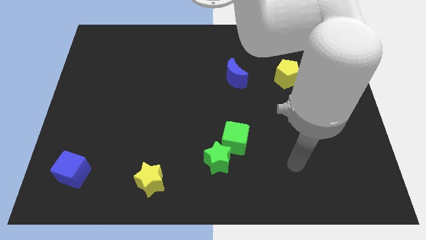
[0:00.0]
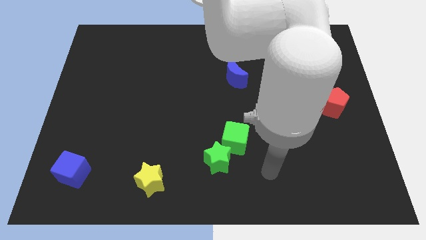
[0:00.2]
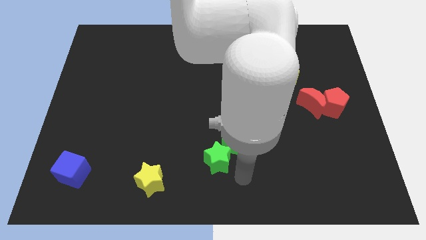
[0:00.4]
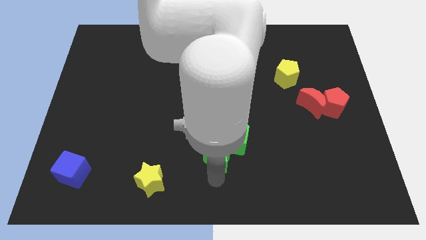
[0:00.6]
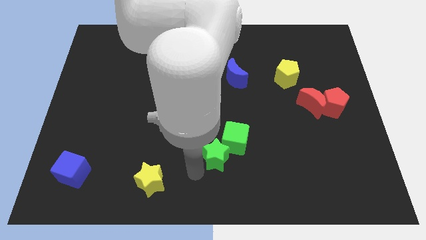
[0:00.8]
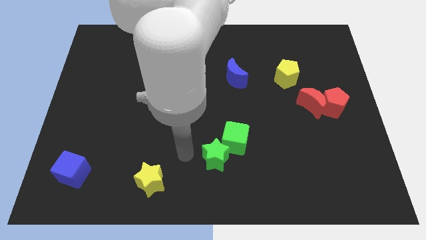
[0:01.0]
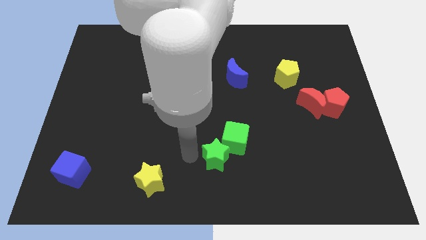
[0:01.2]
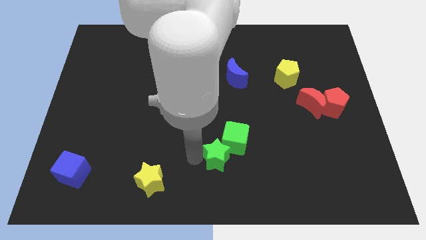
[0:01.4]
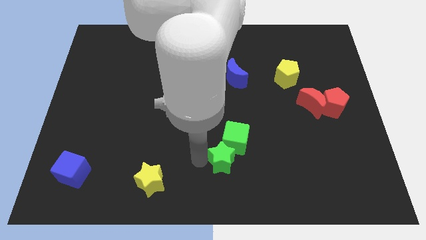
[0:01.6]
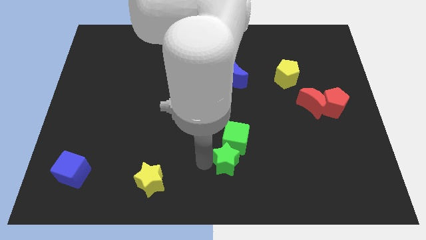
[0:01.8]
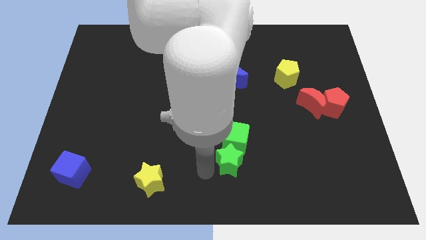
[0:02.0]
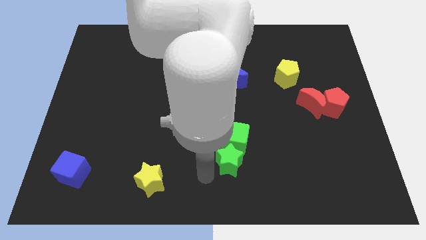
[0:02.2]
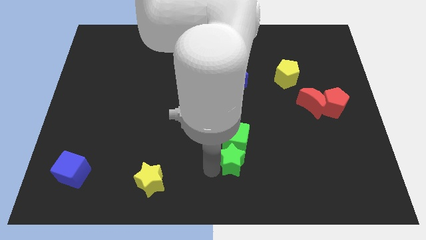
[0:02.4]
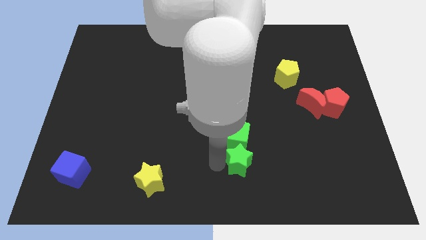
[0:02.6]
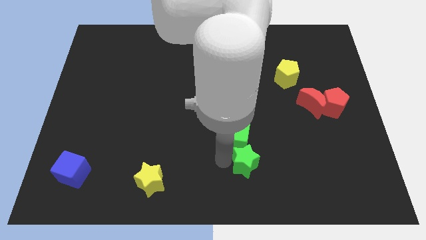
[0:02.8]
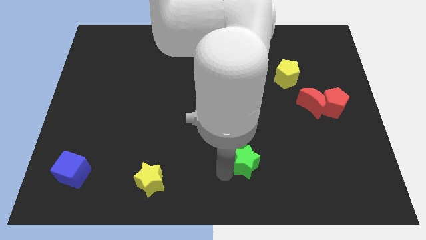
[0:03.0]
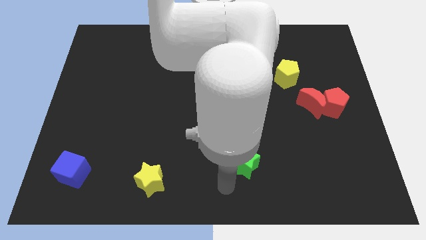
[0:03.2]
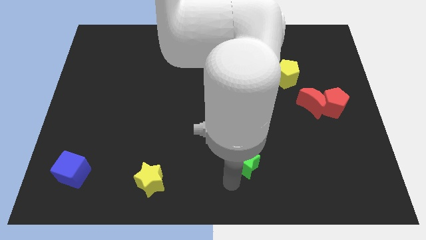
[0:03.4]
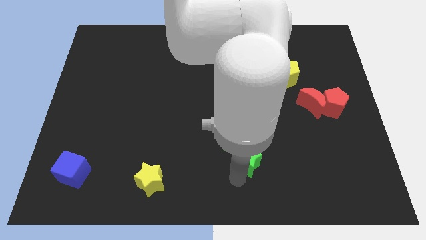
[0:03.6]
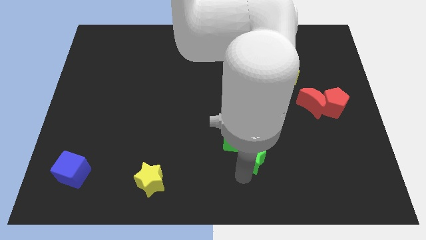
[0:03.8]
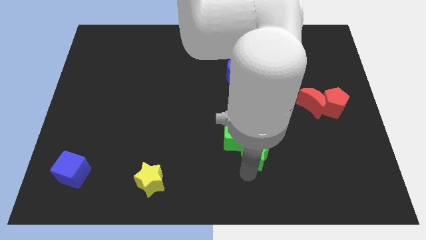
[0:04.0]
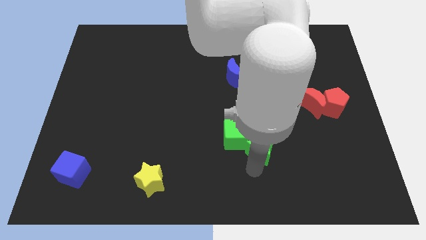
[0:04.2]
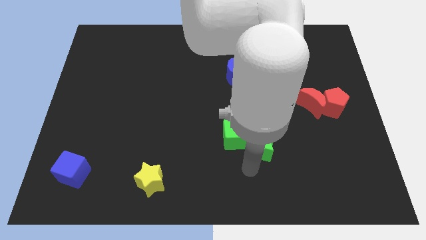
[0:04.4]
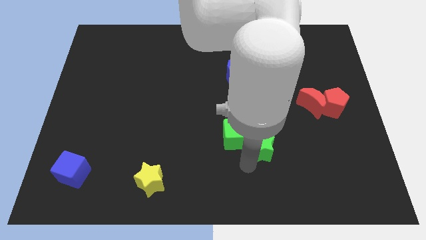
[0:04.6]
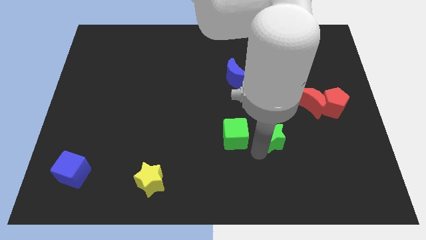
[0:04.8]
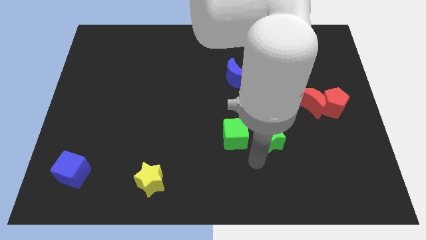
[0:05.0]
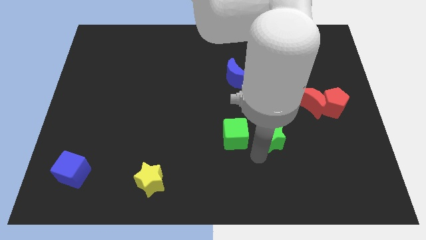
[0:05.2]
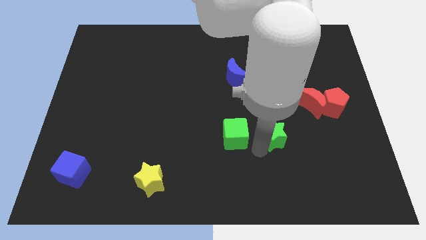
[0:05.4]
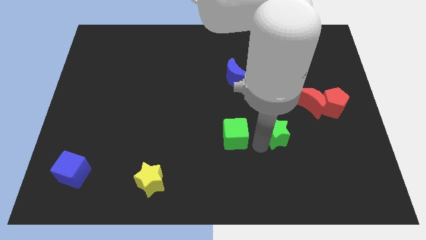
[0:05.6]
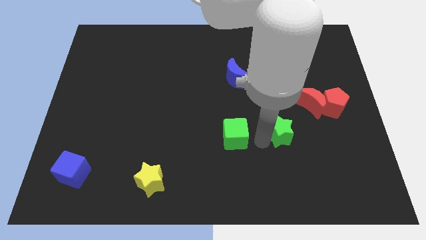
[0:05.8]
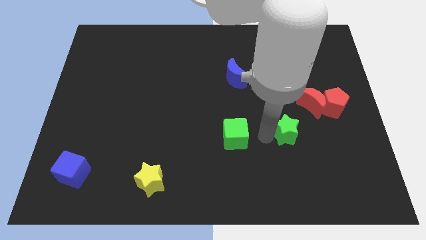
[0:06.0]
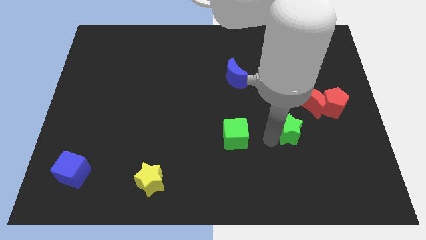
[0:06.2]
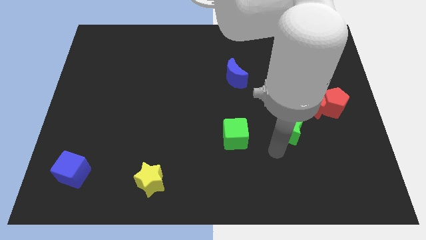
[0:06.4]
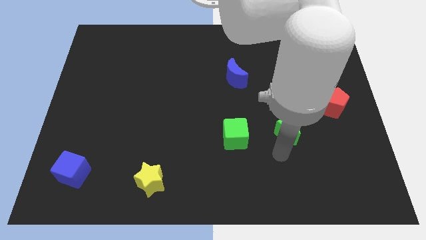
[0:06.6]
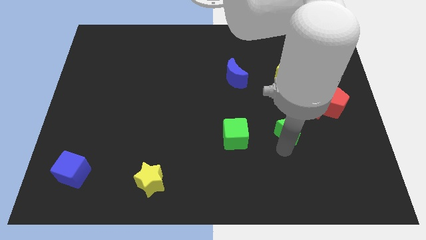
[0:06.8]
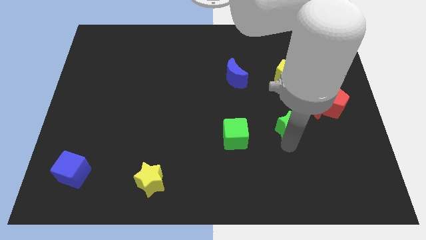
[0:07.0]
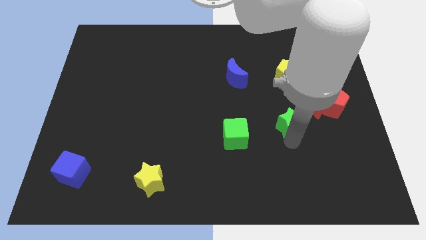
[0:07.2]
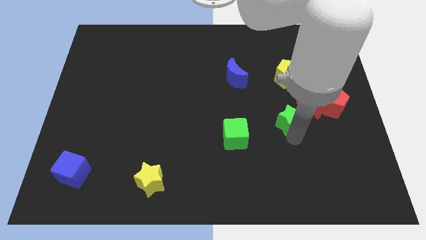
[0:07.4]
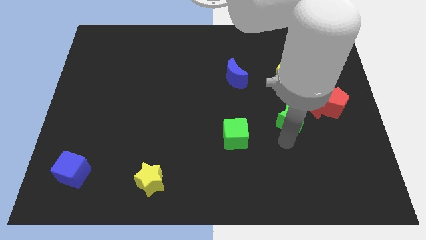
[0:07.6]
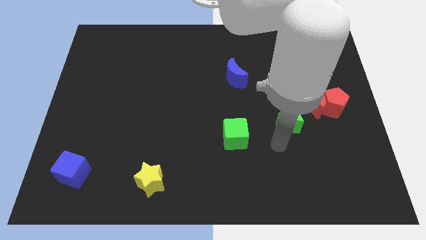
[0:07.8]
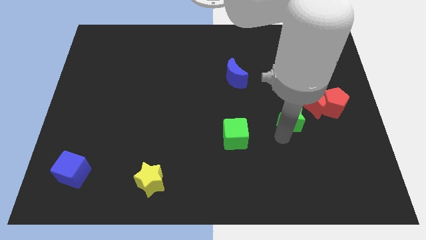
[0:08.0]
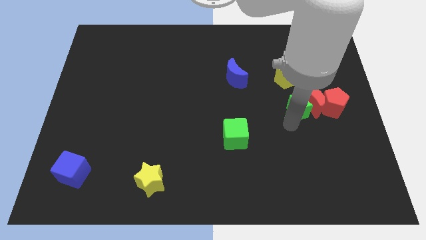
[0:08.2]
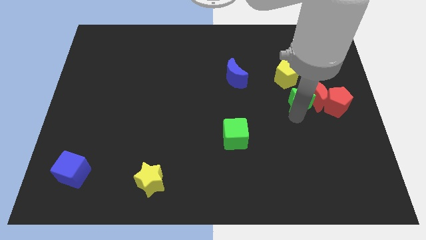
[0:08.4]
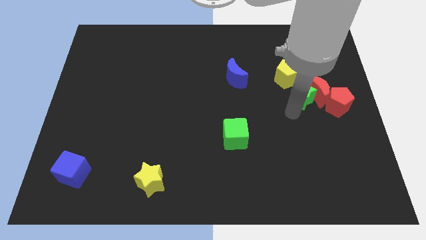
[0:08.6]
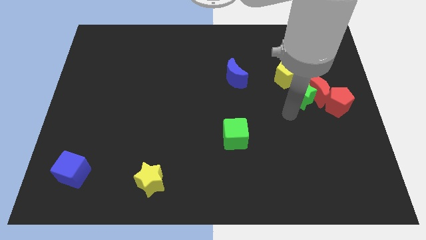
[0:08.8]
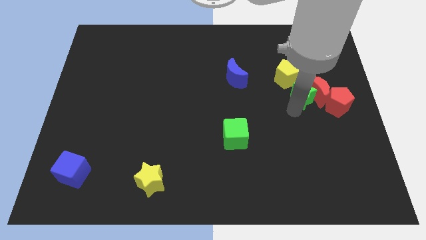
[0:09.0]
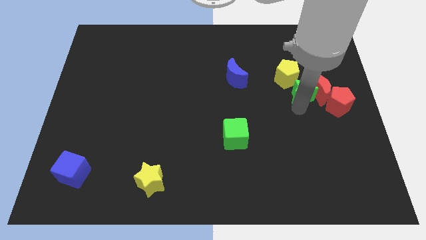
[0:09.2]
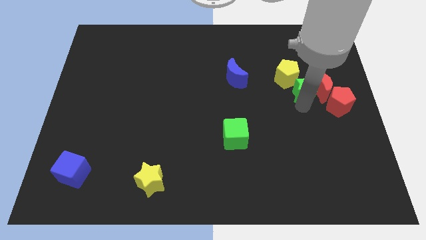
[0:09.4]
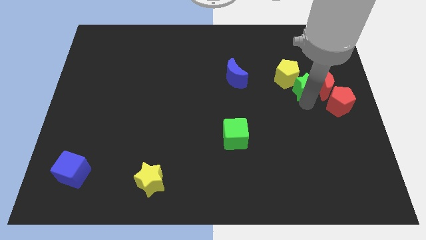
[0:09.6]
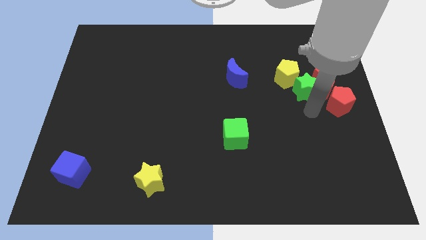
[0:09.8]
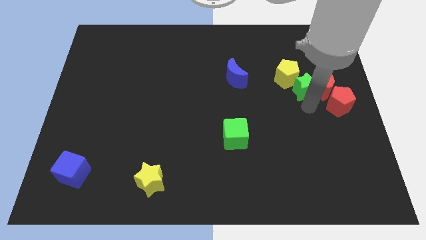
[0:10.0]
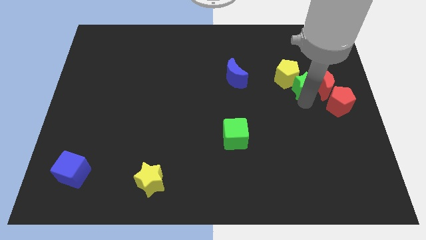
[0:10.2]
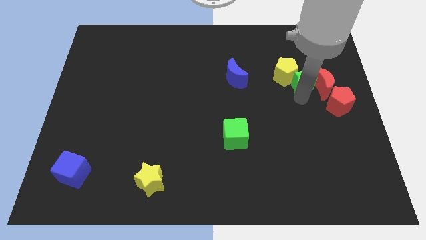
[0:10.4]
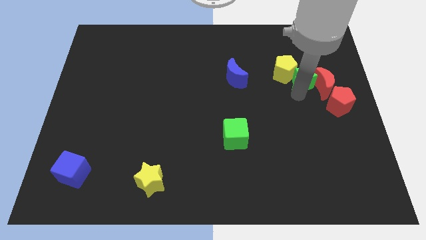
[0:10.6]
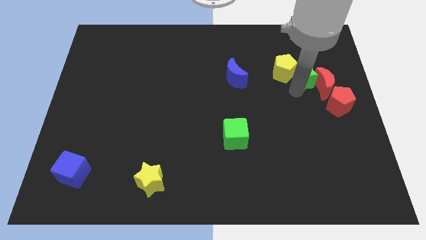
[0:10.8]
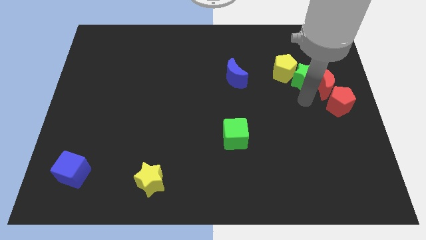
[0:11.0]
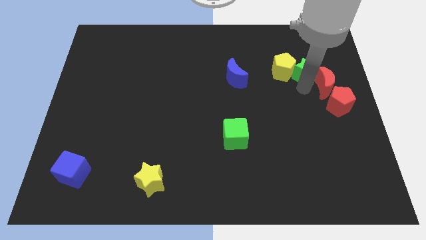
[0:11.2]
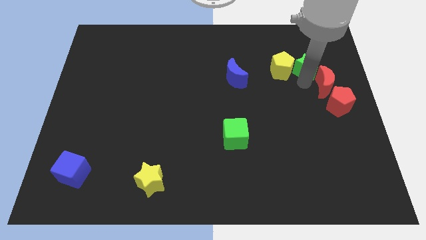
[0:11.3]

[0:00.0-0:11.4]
slide the green star to the top right of the yellow pentagon

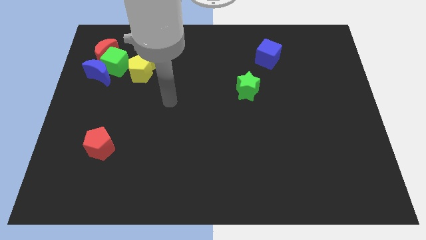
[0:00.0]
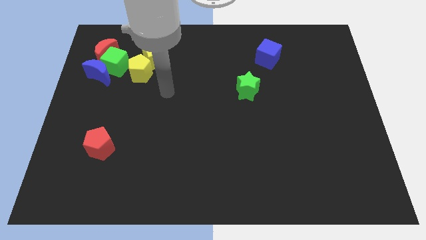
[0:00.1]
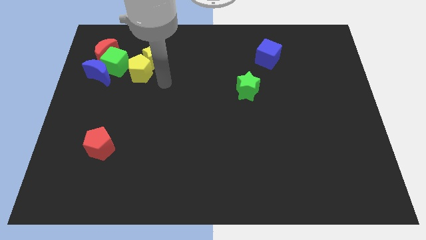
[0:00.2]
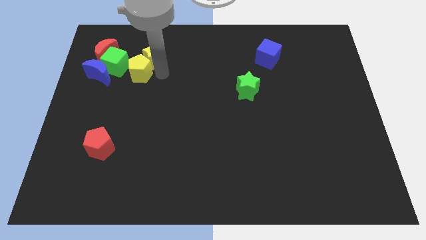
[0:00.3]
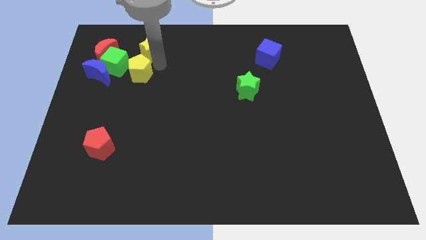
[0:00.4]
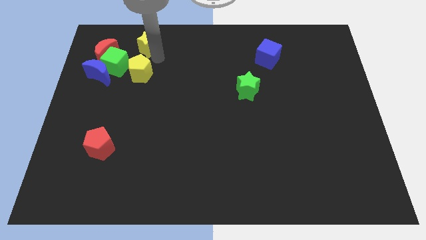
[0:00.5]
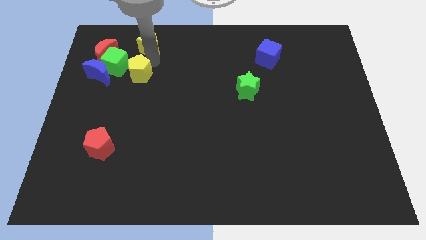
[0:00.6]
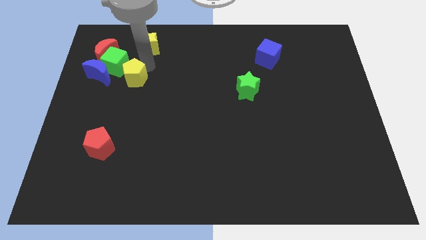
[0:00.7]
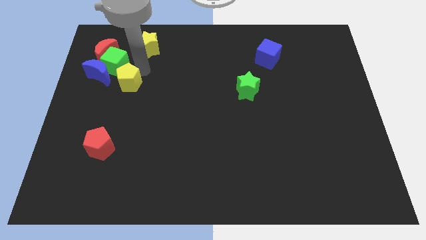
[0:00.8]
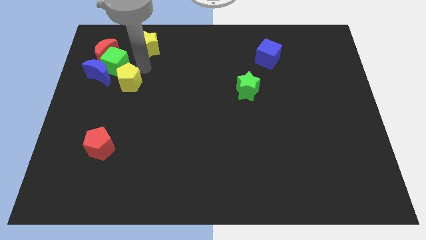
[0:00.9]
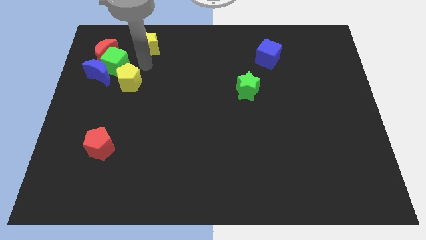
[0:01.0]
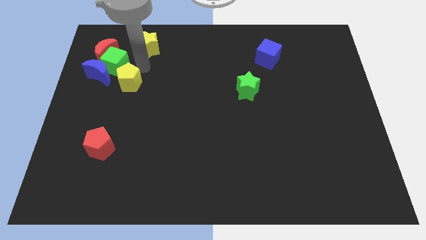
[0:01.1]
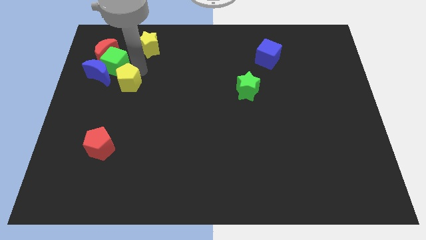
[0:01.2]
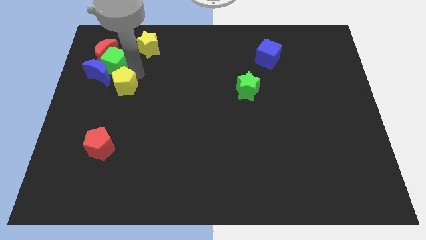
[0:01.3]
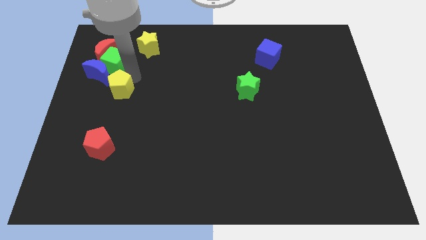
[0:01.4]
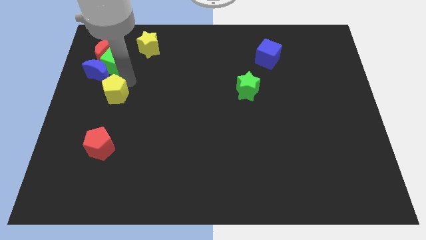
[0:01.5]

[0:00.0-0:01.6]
put the yellow pentagon to the top of the red pentagon
